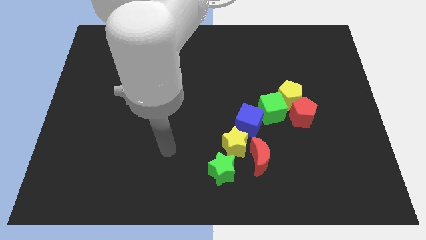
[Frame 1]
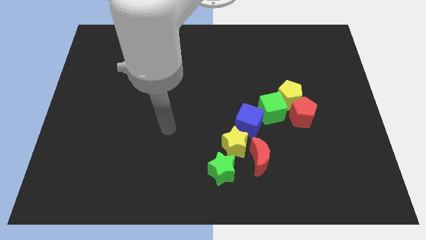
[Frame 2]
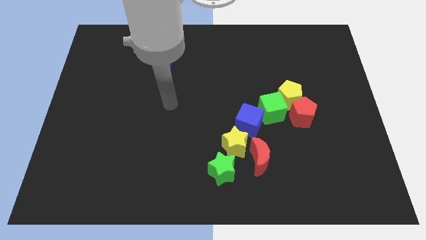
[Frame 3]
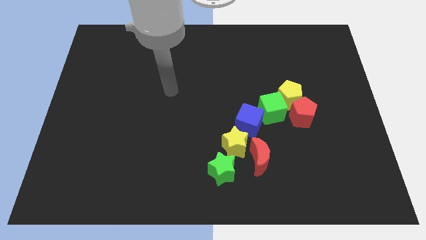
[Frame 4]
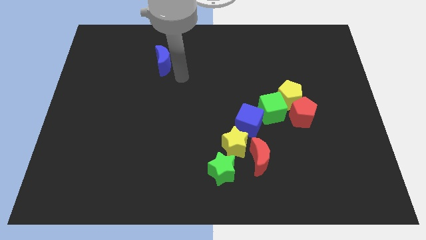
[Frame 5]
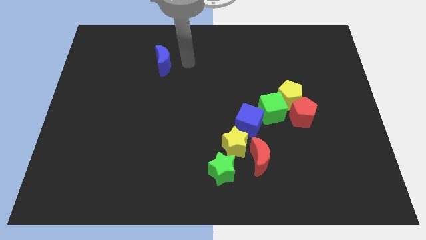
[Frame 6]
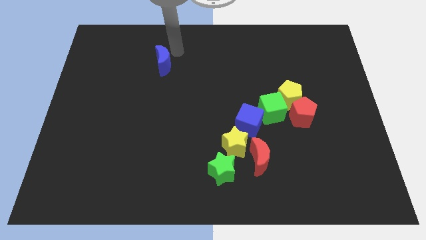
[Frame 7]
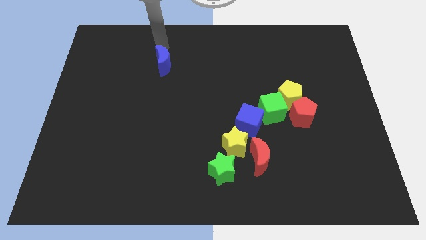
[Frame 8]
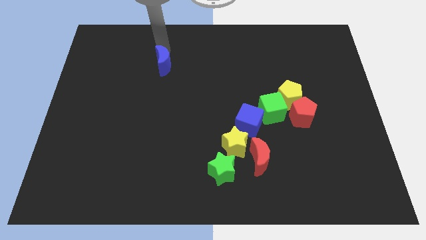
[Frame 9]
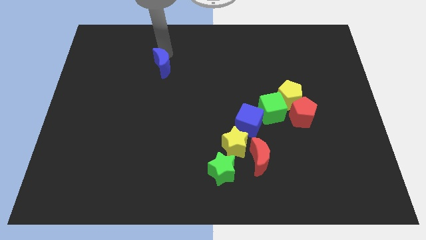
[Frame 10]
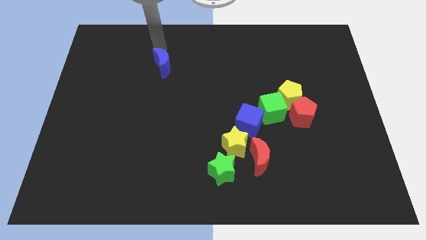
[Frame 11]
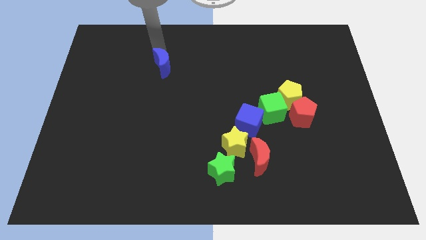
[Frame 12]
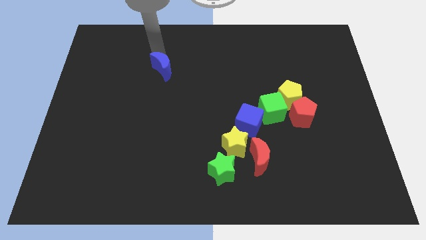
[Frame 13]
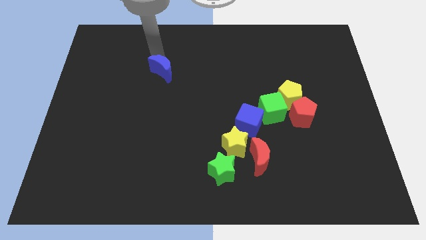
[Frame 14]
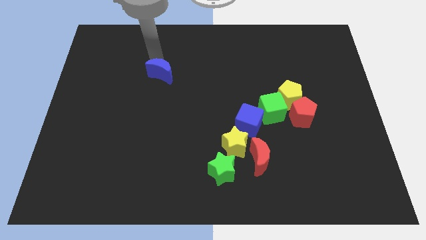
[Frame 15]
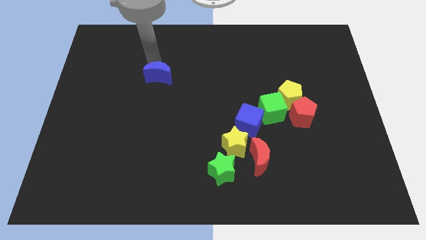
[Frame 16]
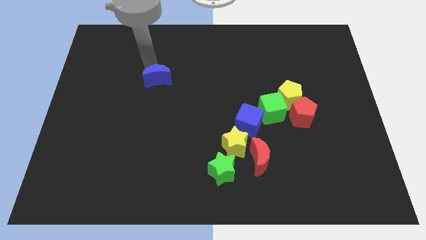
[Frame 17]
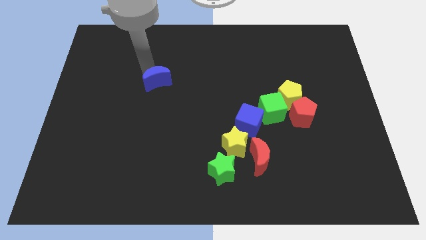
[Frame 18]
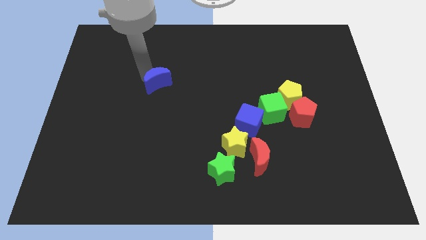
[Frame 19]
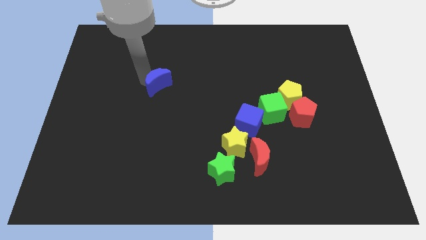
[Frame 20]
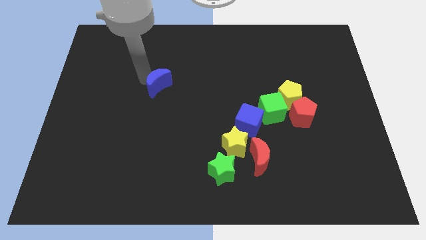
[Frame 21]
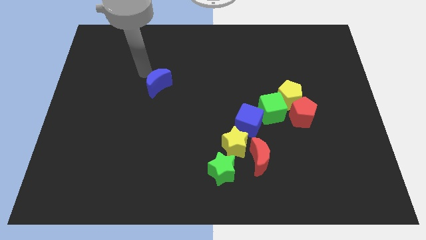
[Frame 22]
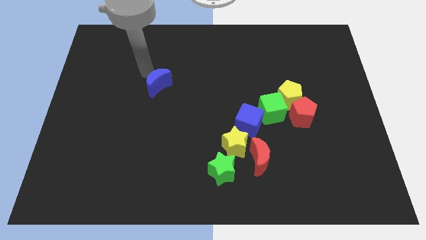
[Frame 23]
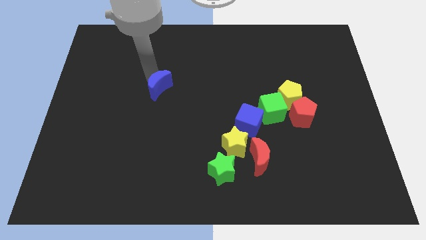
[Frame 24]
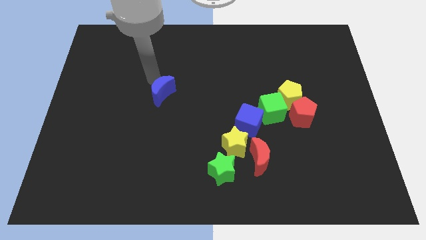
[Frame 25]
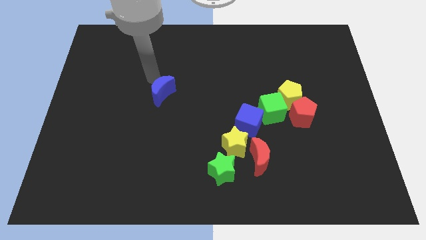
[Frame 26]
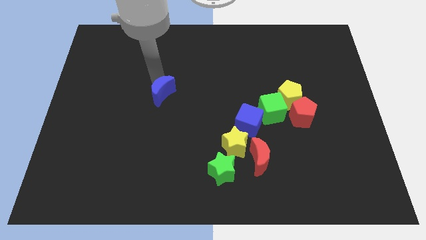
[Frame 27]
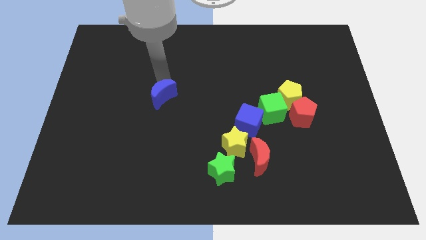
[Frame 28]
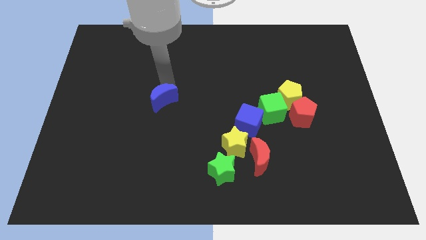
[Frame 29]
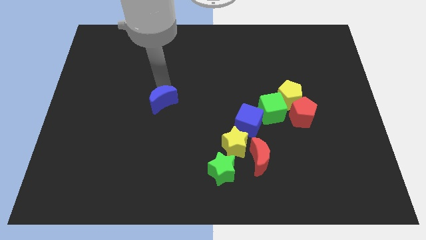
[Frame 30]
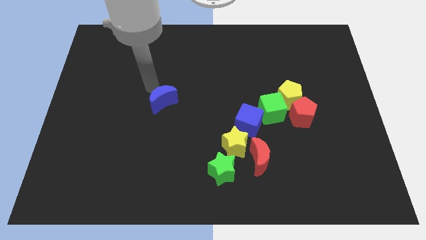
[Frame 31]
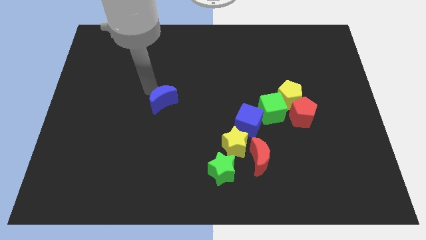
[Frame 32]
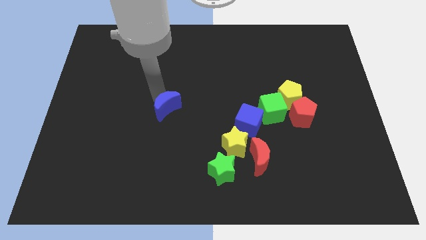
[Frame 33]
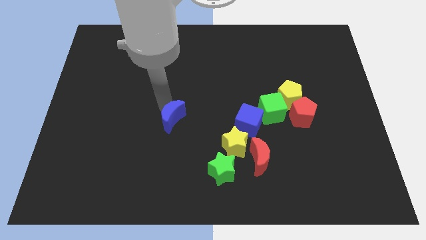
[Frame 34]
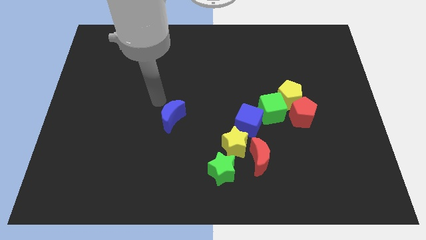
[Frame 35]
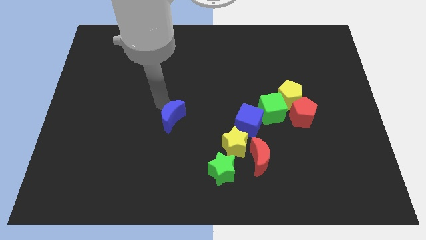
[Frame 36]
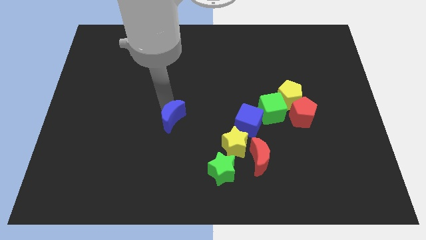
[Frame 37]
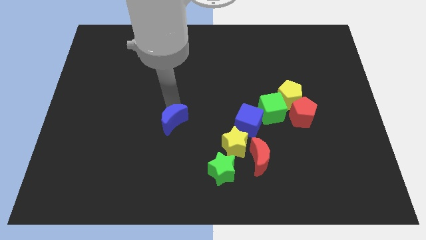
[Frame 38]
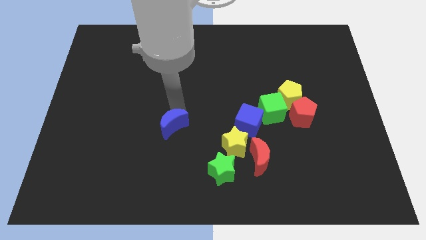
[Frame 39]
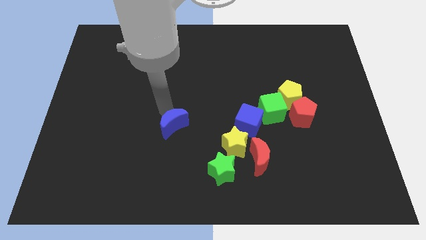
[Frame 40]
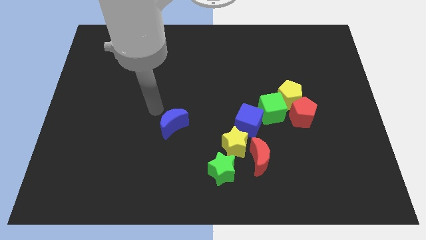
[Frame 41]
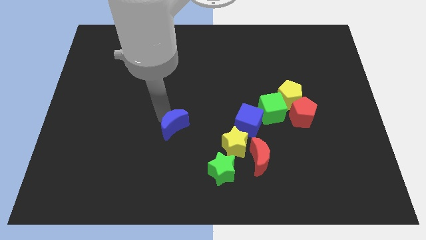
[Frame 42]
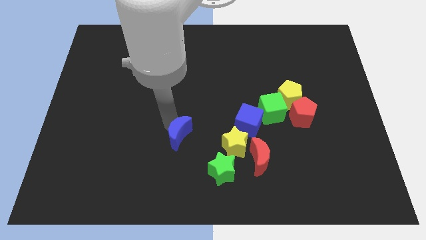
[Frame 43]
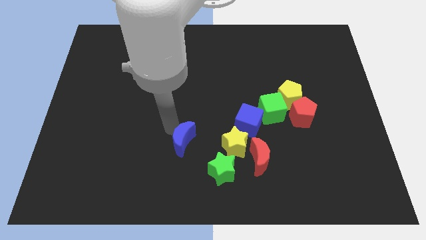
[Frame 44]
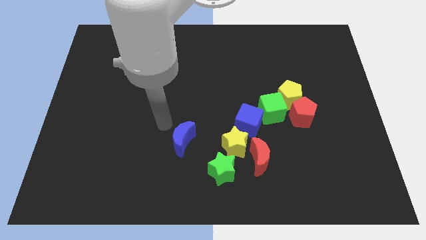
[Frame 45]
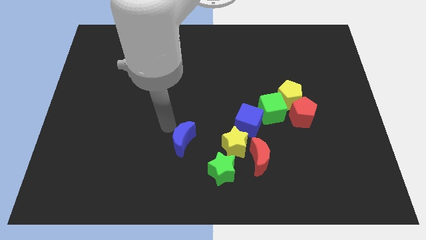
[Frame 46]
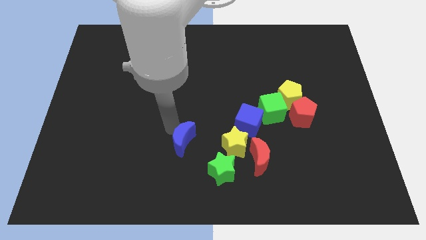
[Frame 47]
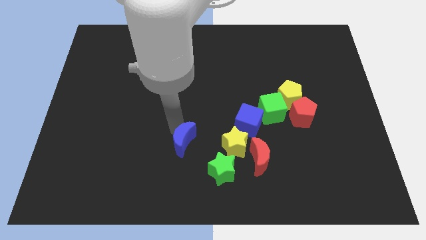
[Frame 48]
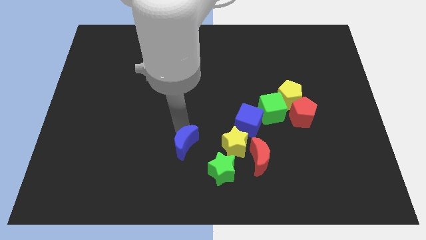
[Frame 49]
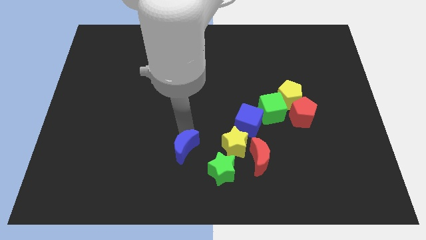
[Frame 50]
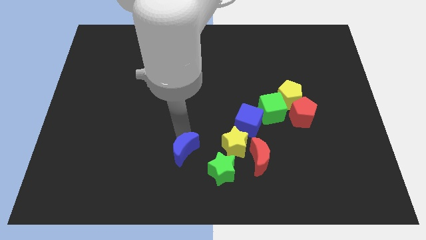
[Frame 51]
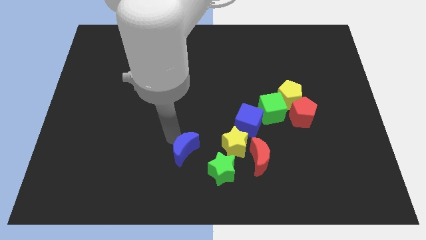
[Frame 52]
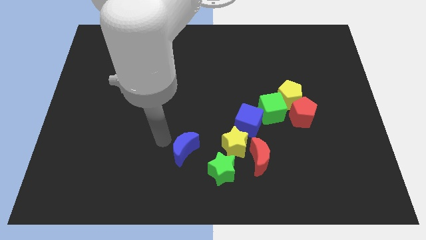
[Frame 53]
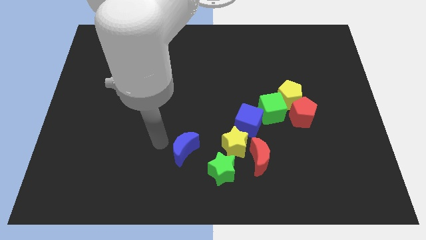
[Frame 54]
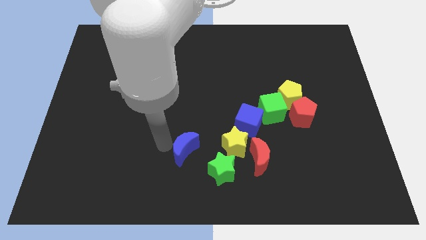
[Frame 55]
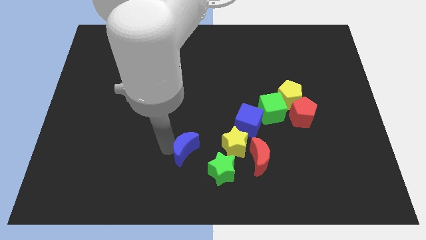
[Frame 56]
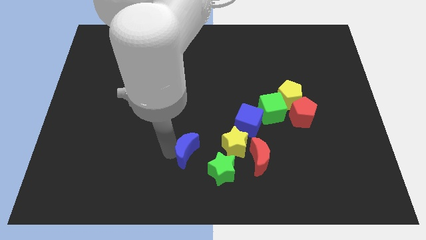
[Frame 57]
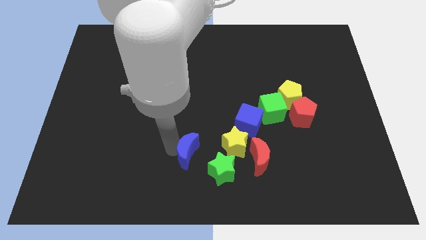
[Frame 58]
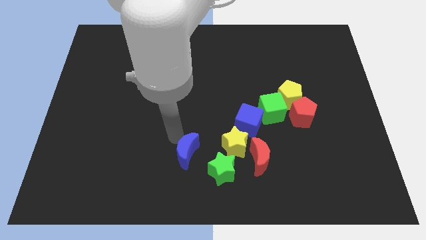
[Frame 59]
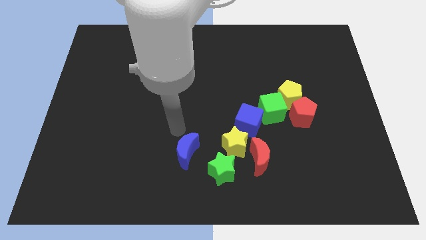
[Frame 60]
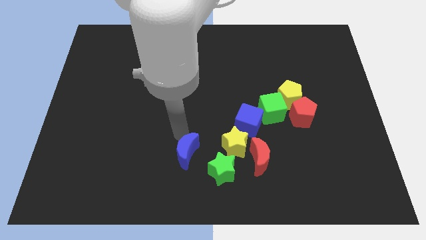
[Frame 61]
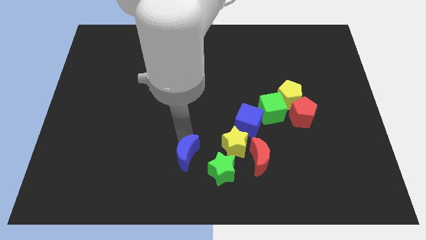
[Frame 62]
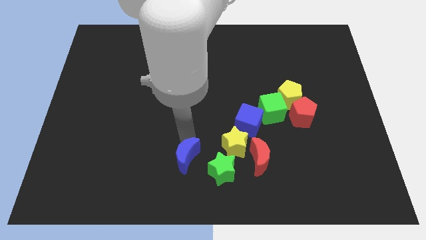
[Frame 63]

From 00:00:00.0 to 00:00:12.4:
move the blue moon to the bottom side

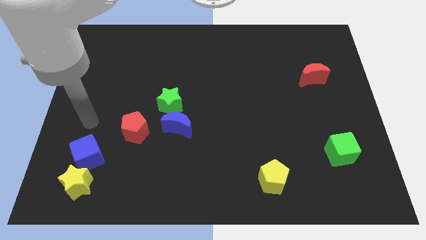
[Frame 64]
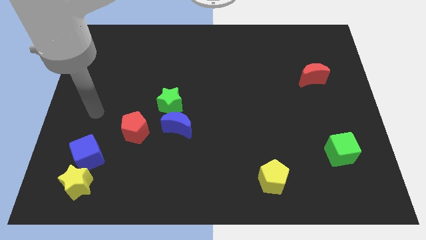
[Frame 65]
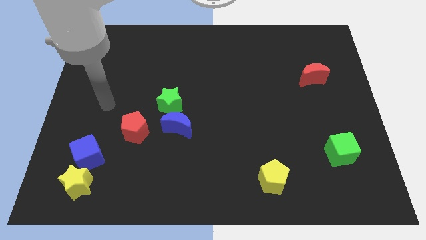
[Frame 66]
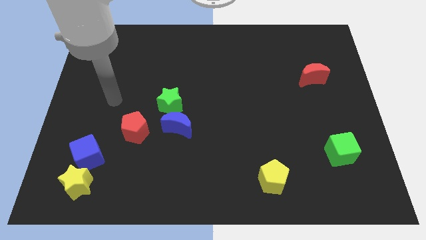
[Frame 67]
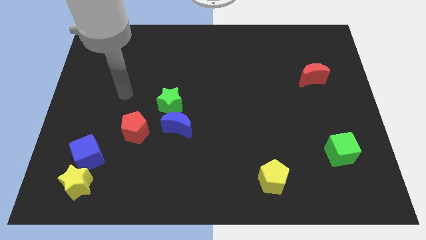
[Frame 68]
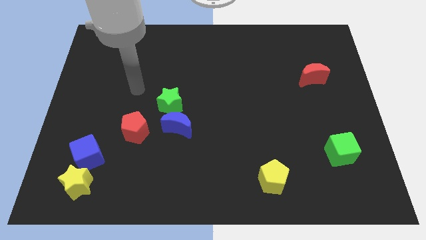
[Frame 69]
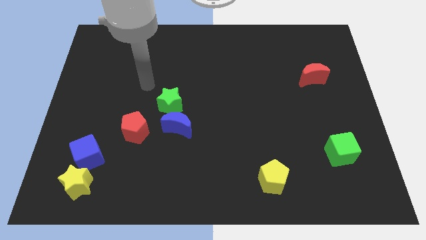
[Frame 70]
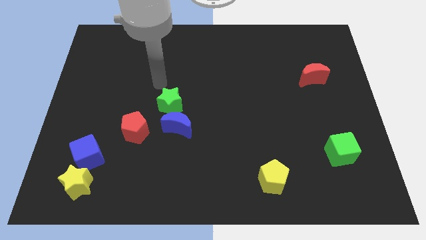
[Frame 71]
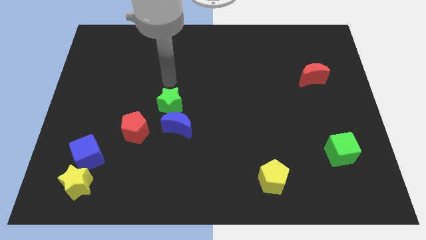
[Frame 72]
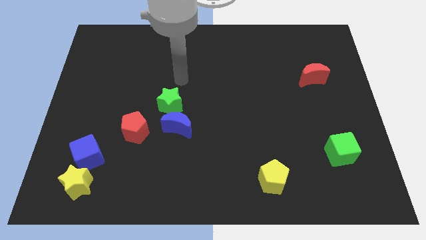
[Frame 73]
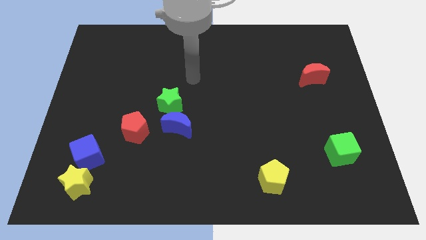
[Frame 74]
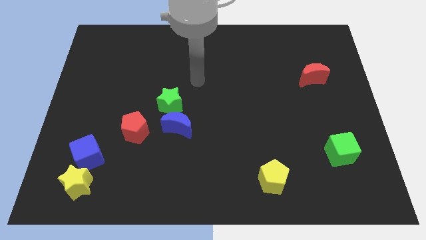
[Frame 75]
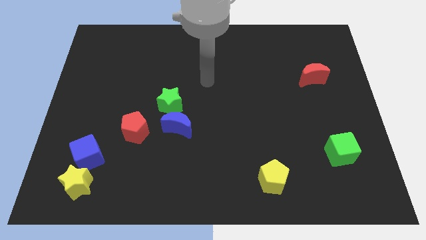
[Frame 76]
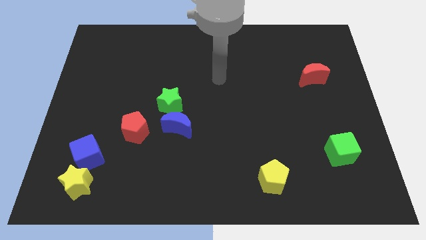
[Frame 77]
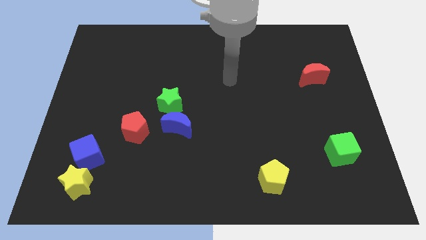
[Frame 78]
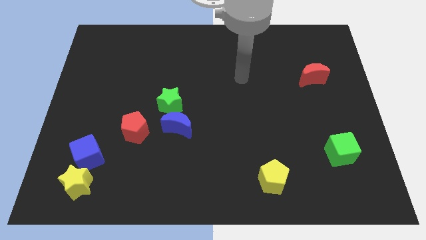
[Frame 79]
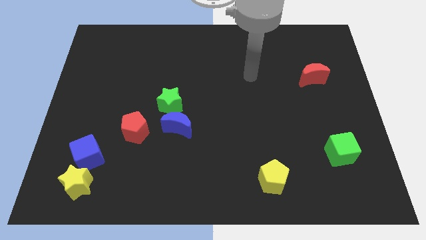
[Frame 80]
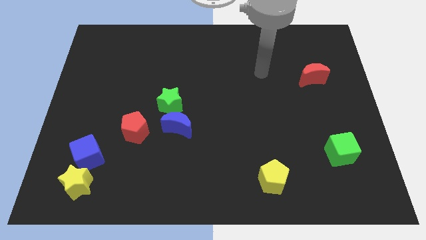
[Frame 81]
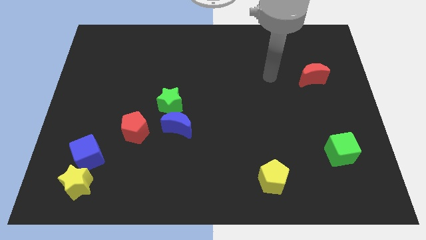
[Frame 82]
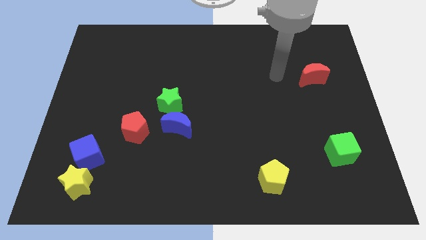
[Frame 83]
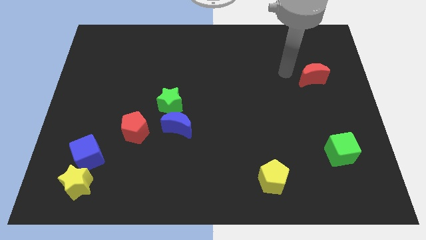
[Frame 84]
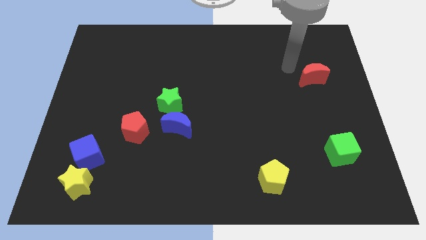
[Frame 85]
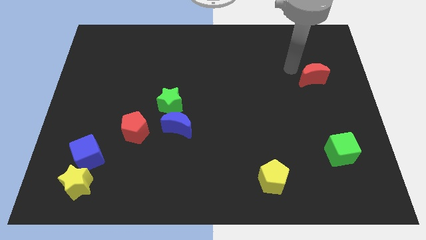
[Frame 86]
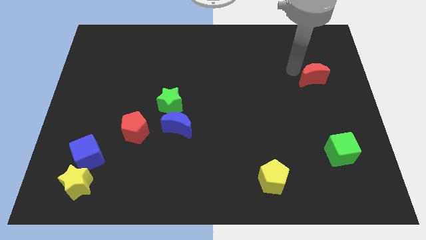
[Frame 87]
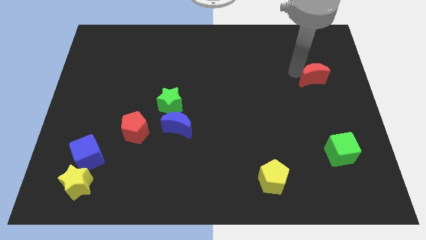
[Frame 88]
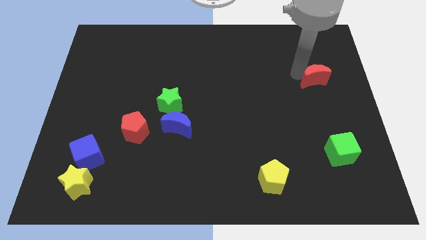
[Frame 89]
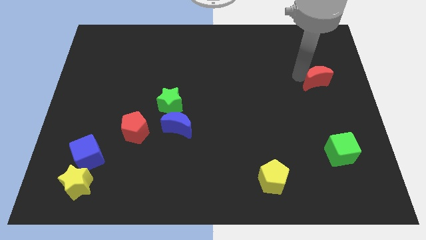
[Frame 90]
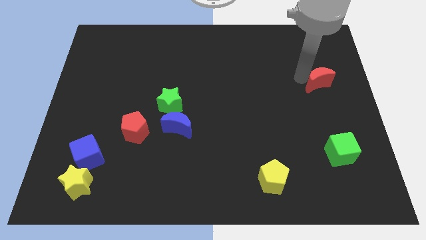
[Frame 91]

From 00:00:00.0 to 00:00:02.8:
push the red moon to the right side of the board
